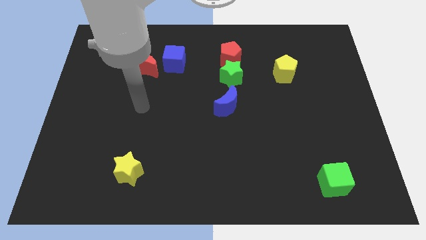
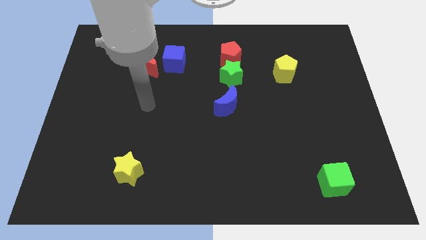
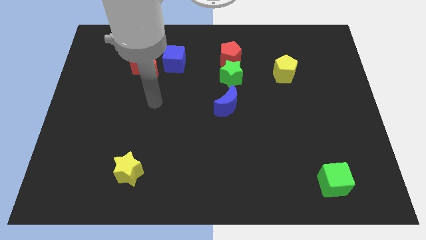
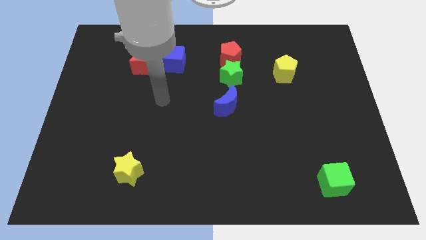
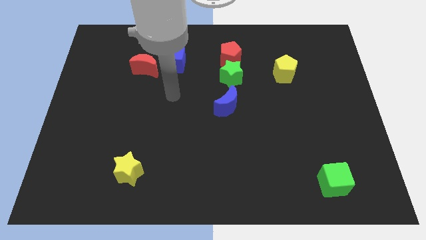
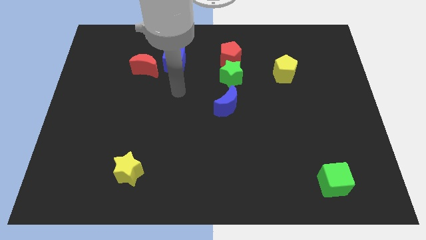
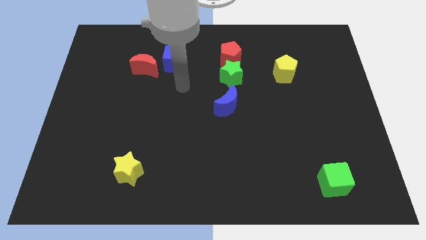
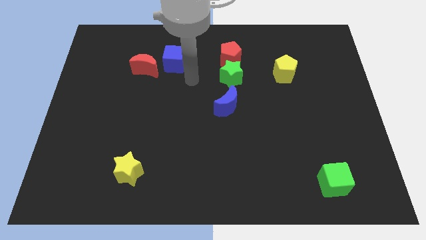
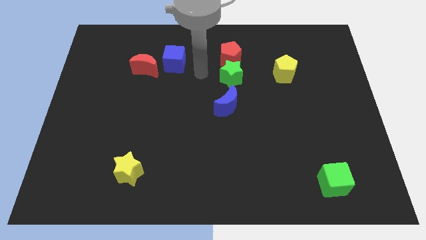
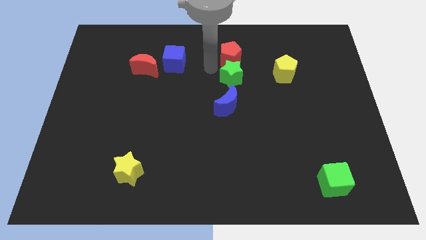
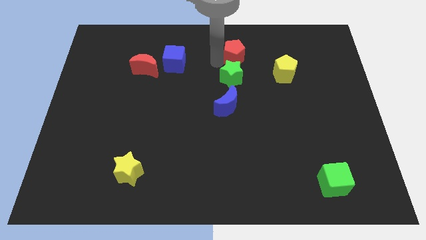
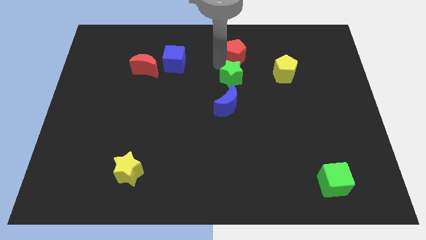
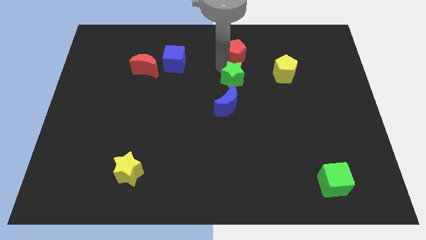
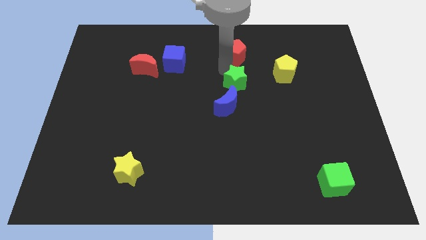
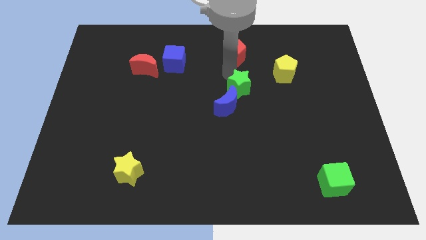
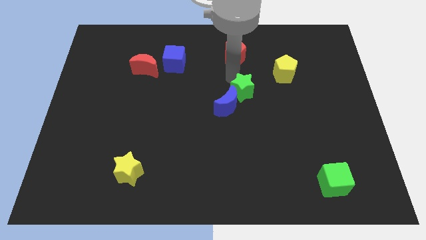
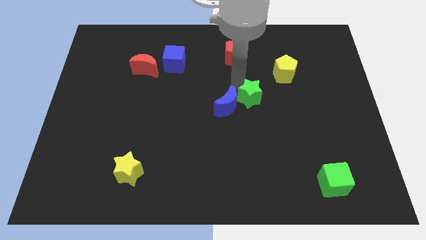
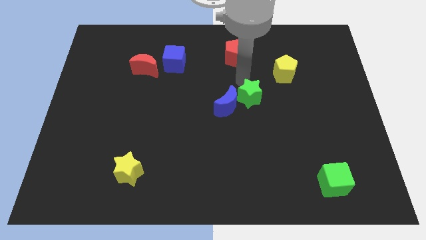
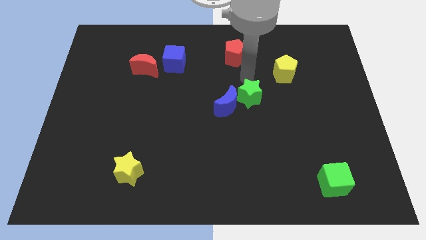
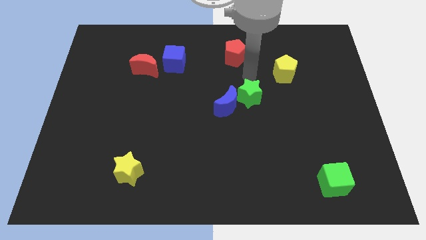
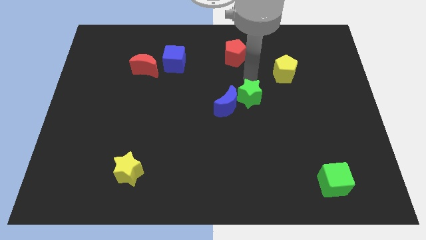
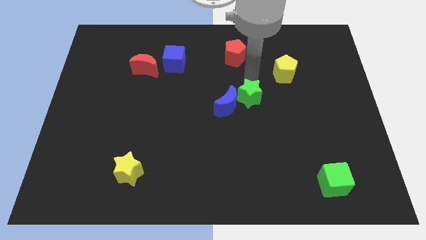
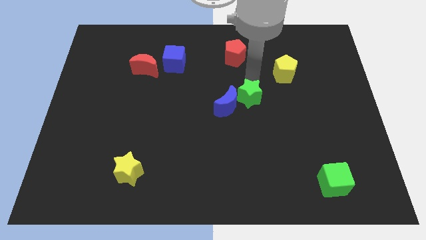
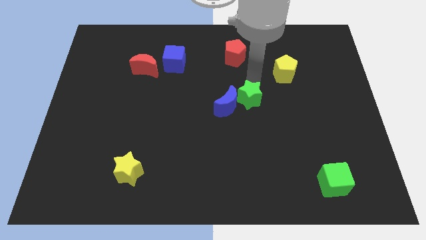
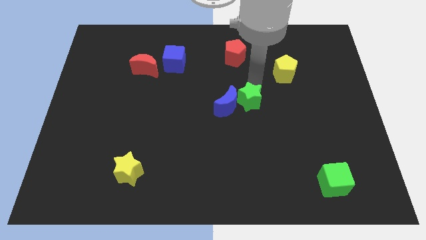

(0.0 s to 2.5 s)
slide the green star down a little bit

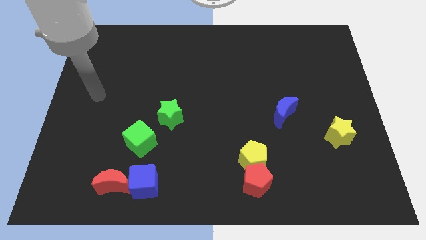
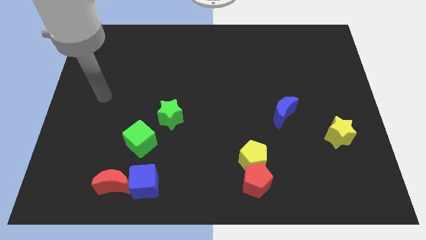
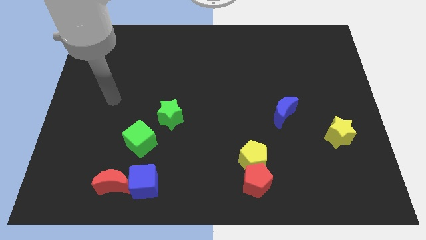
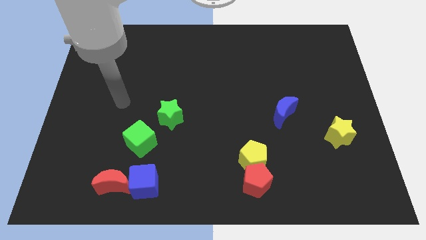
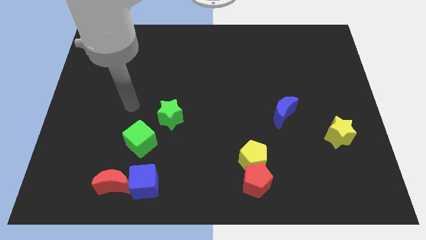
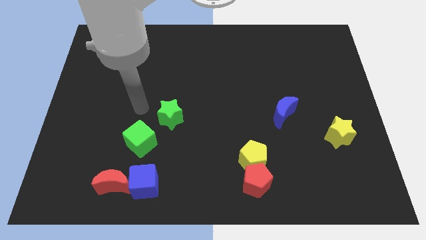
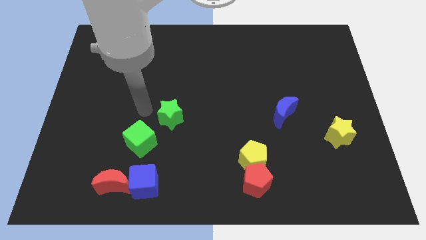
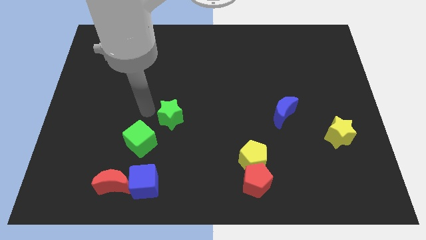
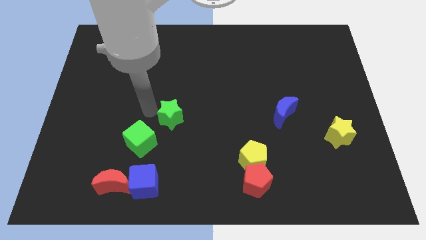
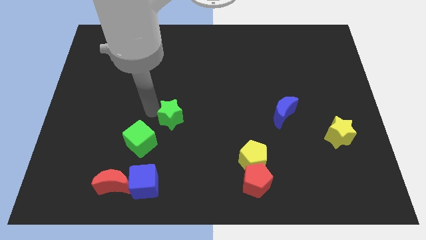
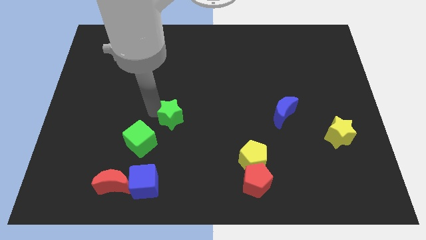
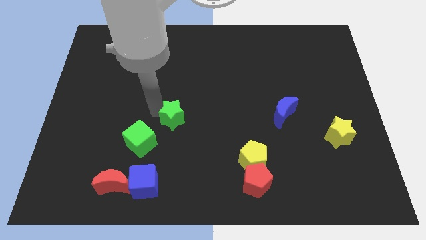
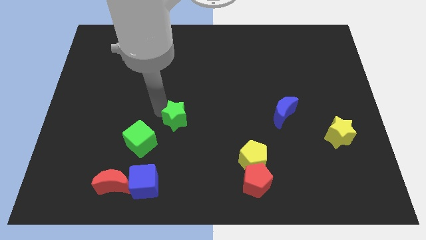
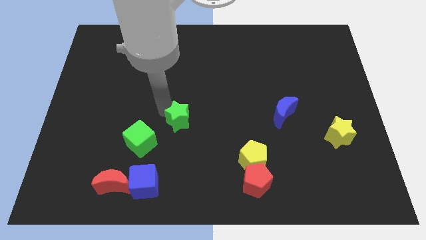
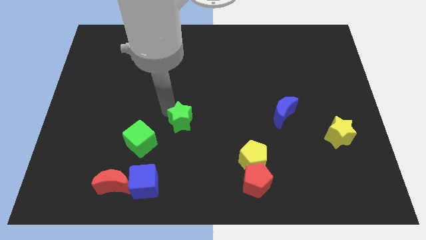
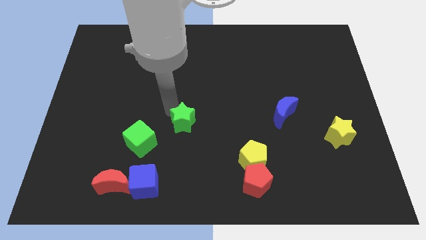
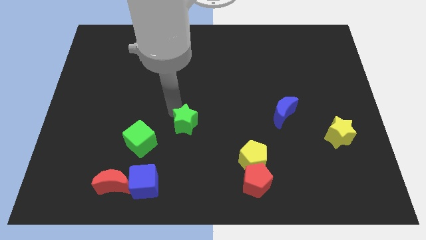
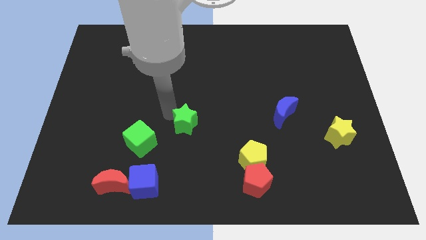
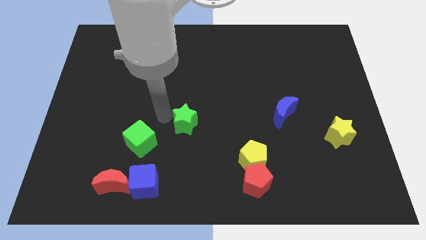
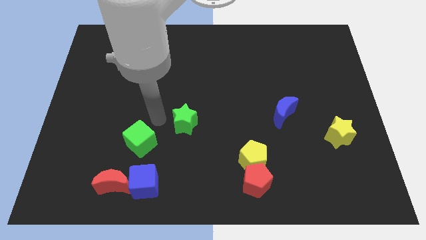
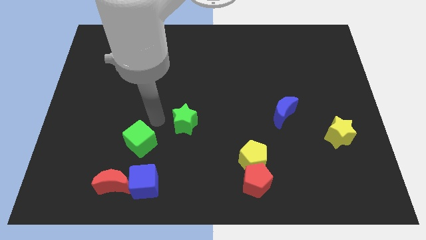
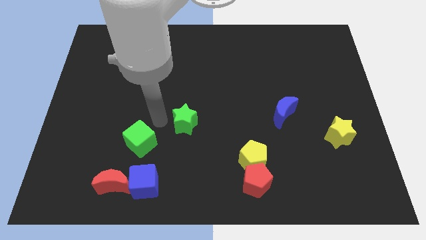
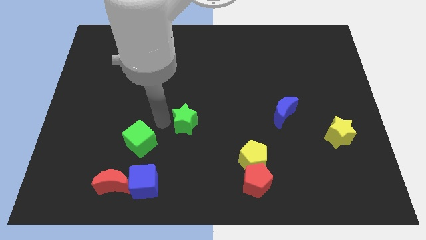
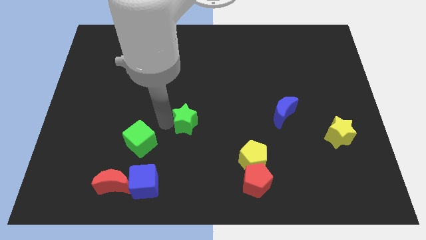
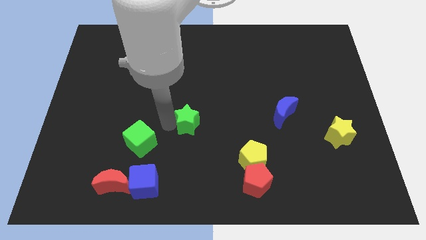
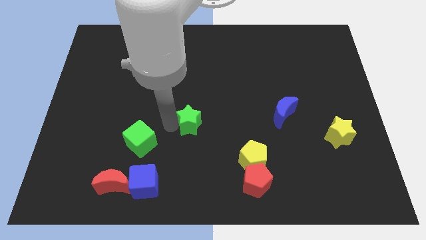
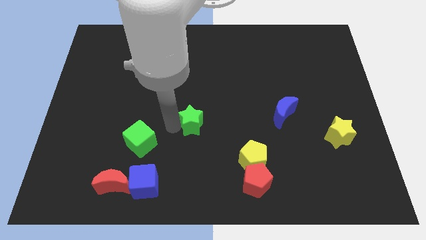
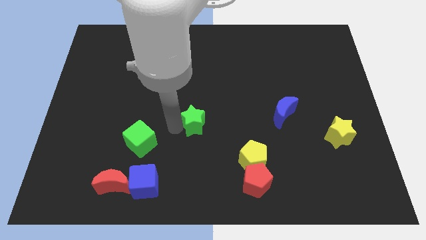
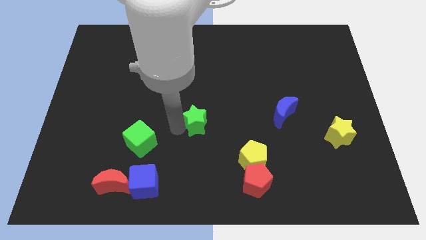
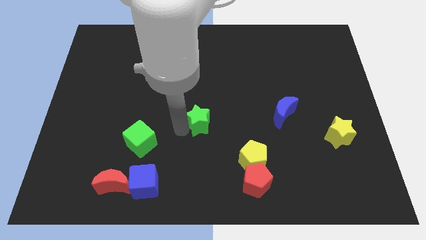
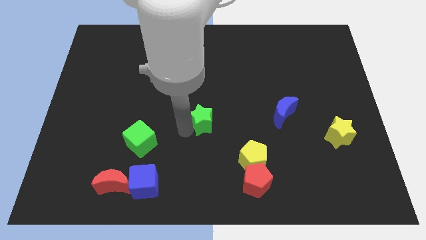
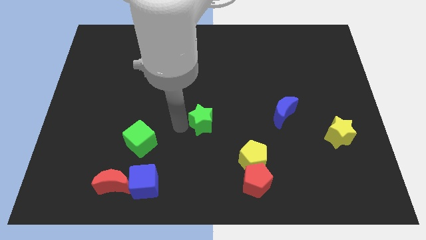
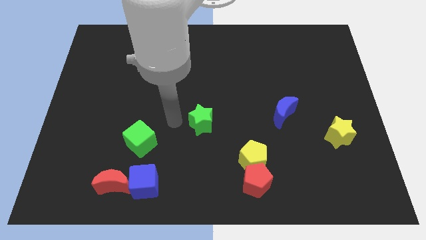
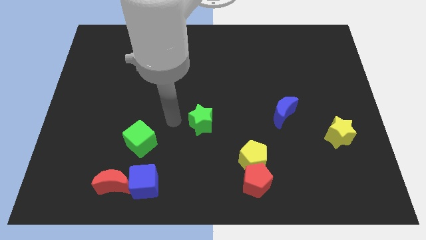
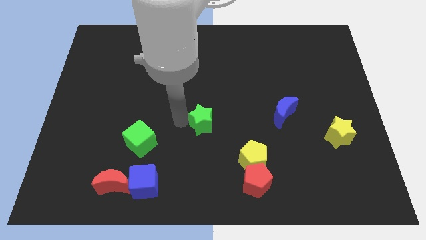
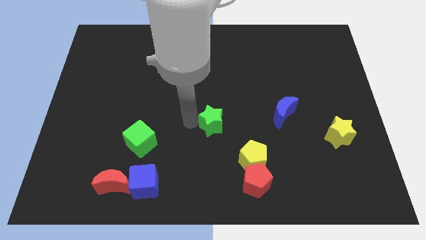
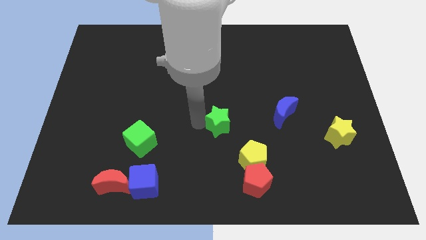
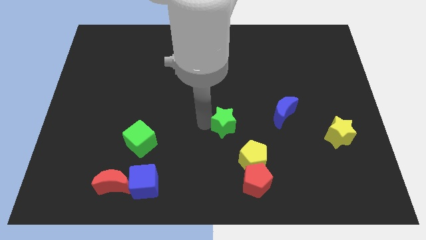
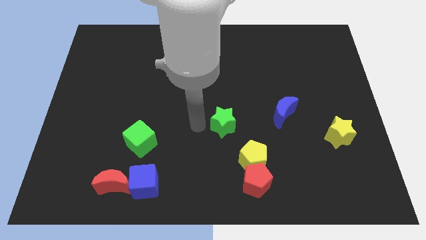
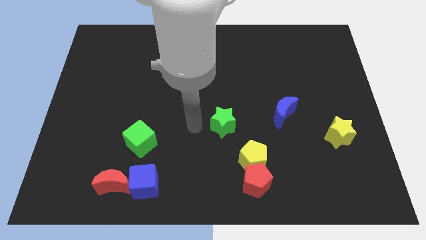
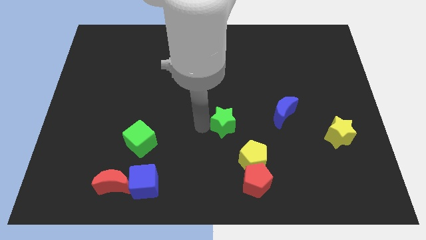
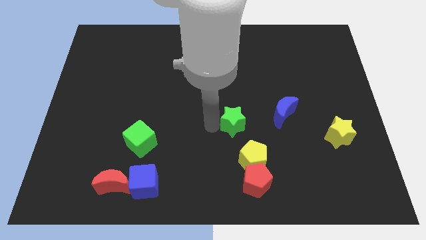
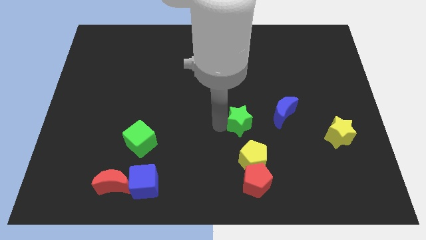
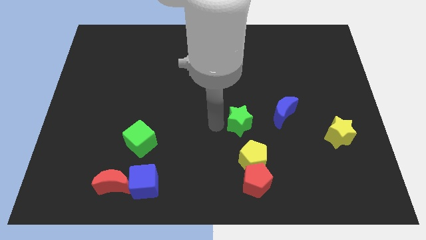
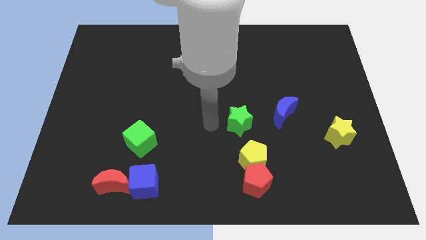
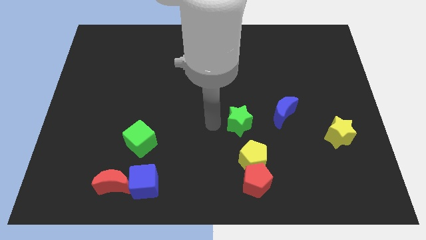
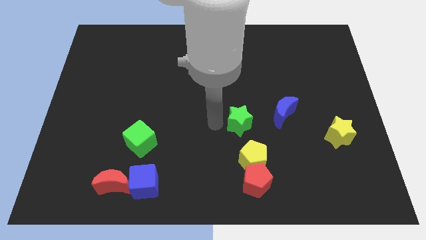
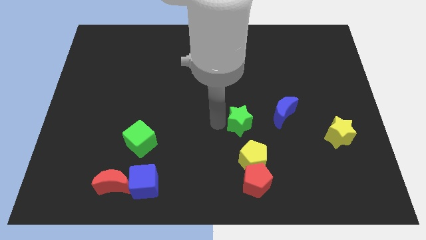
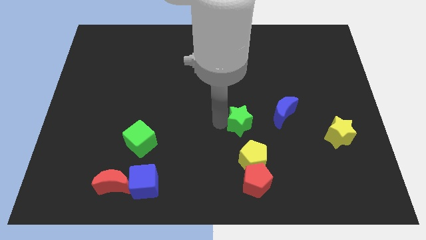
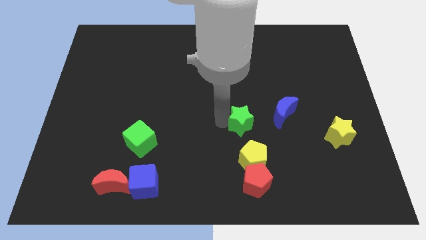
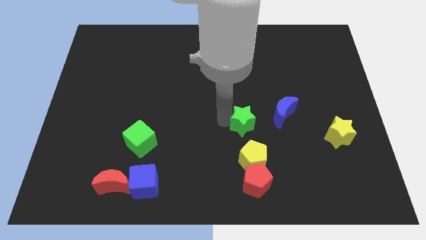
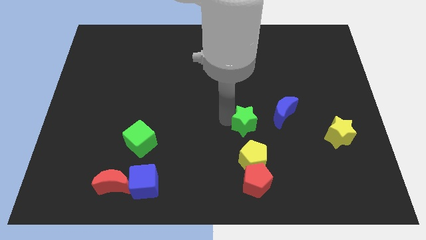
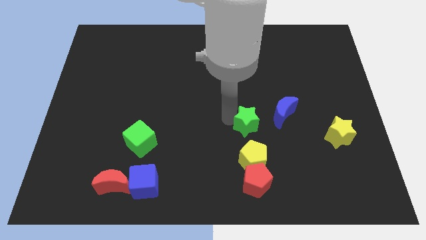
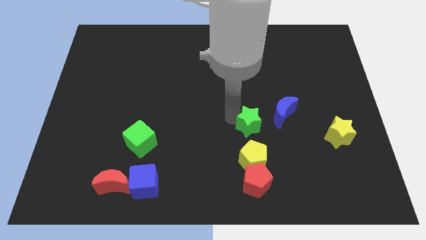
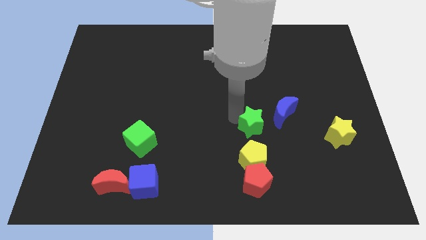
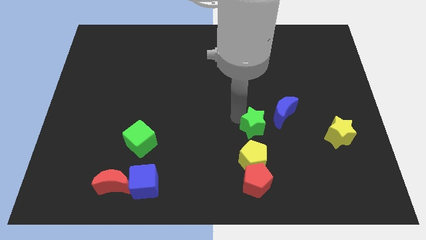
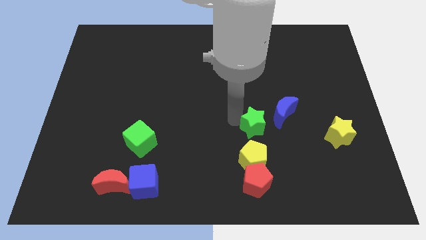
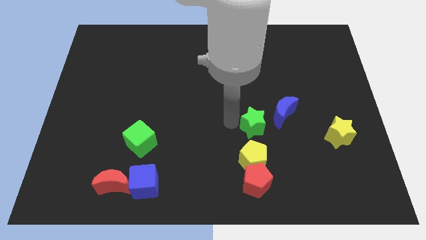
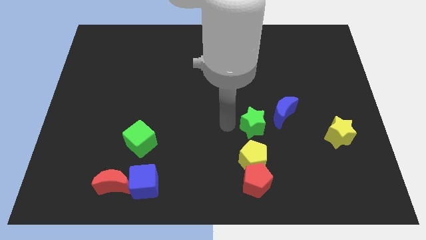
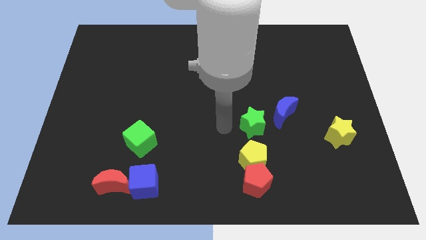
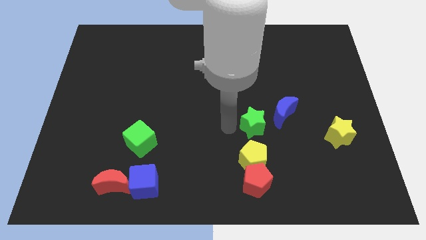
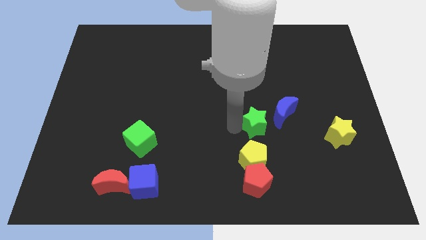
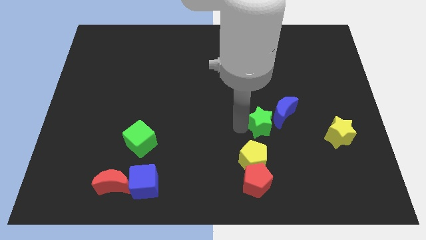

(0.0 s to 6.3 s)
move the green star right
